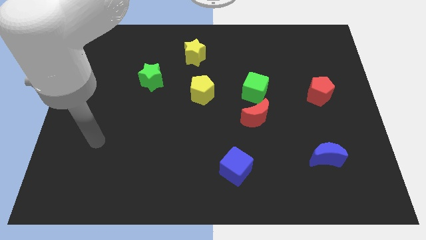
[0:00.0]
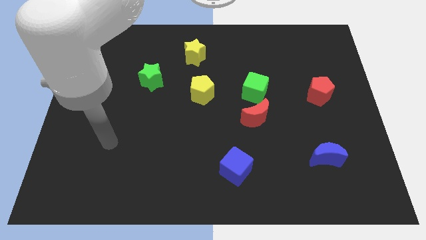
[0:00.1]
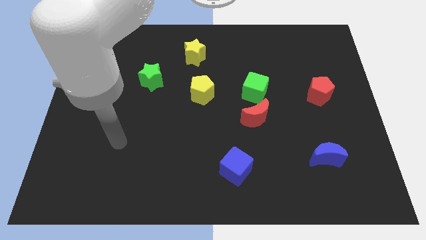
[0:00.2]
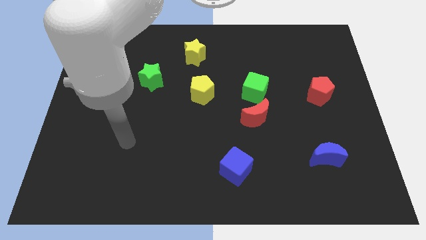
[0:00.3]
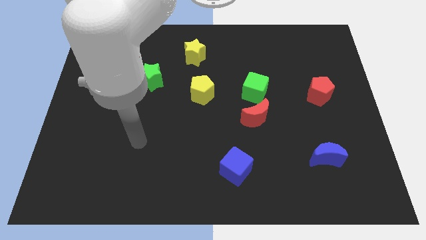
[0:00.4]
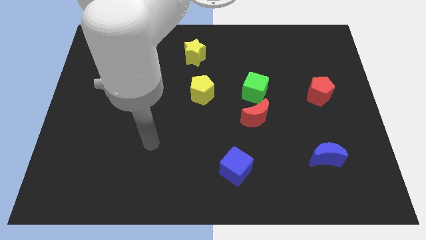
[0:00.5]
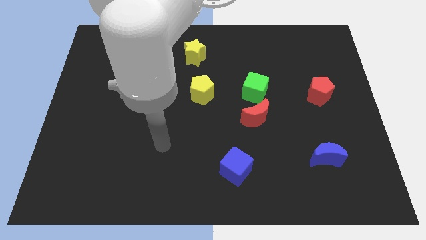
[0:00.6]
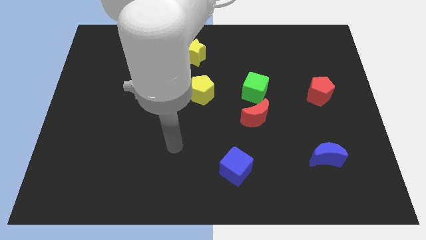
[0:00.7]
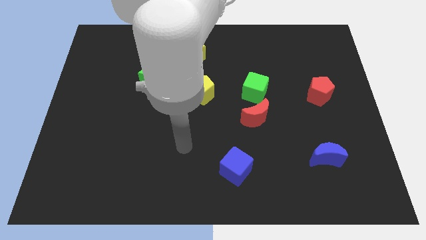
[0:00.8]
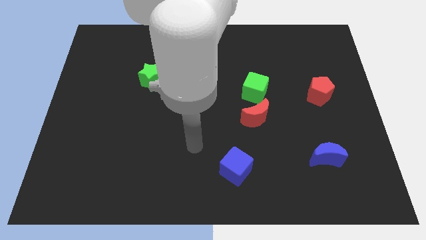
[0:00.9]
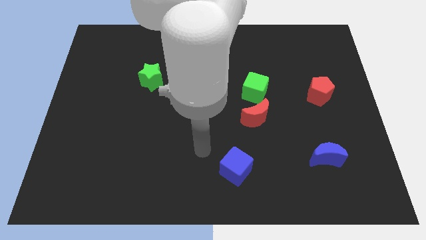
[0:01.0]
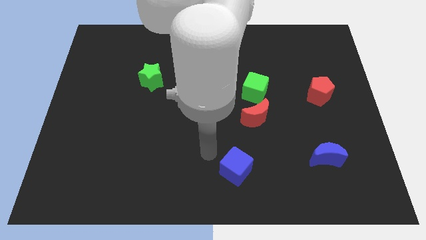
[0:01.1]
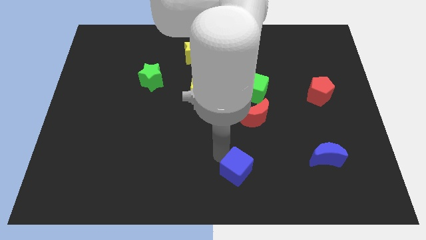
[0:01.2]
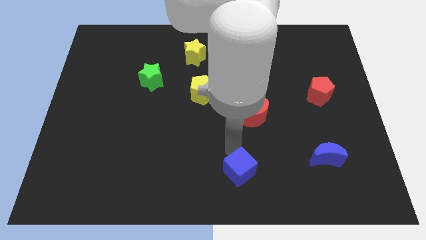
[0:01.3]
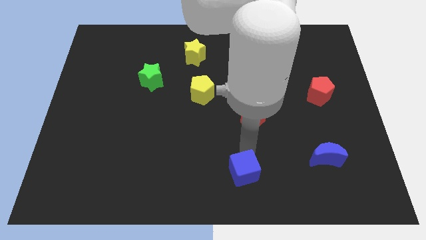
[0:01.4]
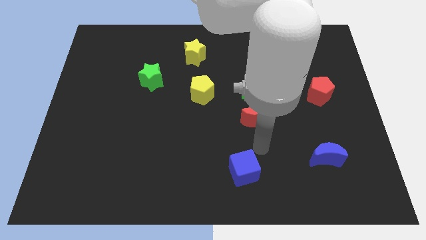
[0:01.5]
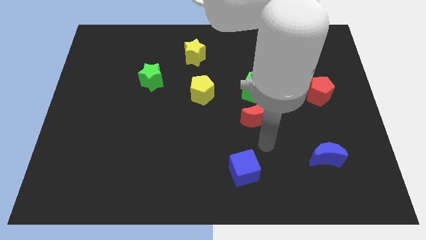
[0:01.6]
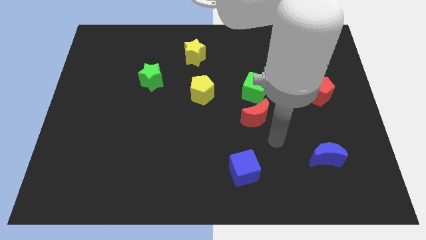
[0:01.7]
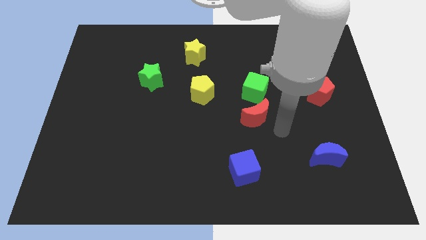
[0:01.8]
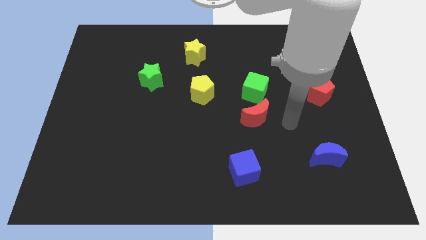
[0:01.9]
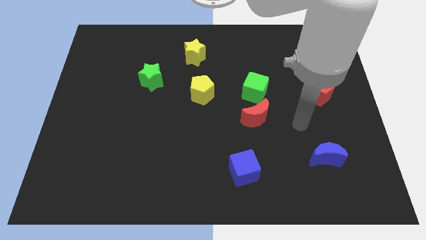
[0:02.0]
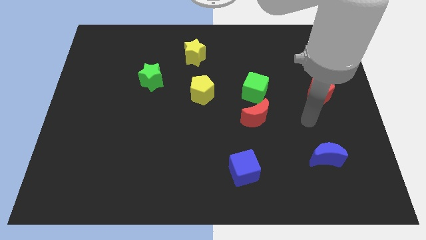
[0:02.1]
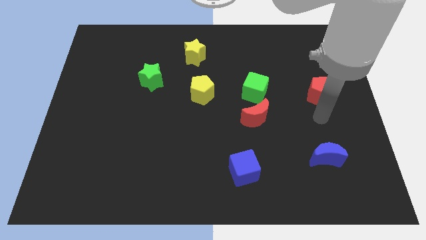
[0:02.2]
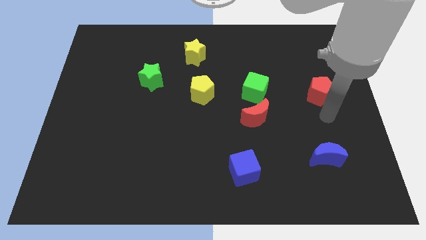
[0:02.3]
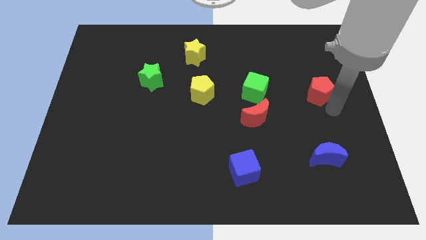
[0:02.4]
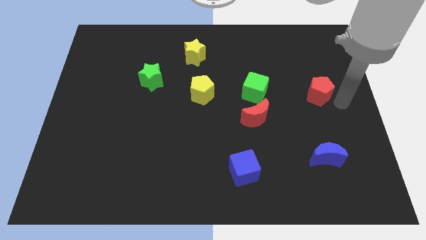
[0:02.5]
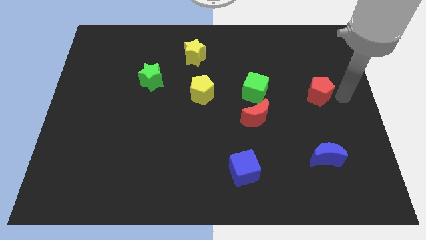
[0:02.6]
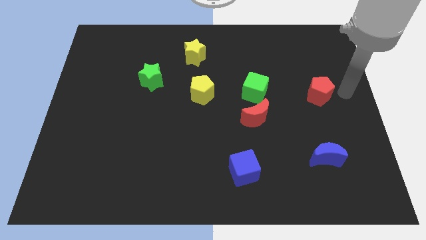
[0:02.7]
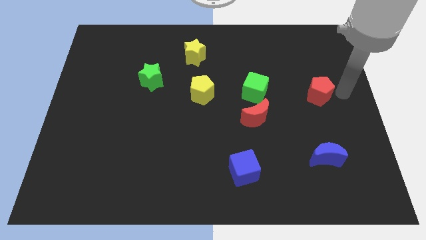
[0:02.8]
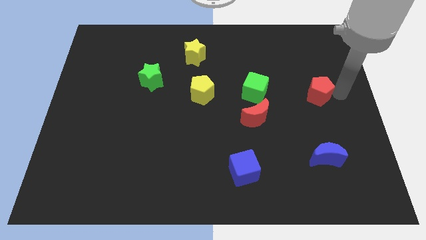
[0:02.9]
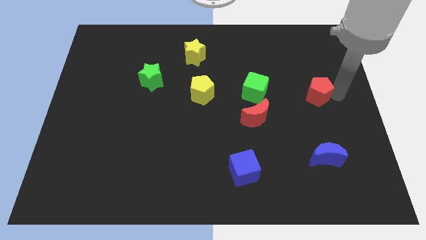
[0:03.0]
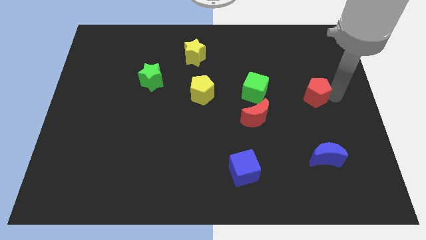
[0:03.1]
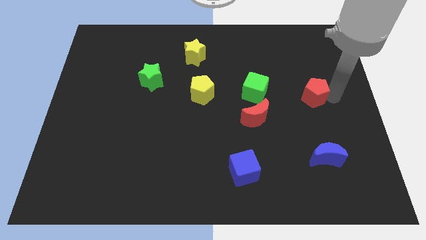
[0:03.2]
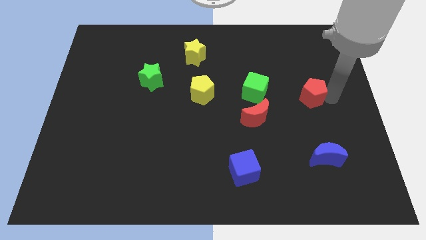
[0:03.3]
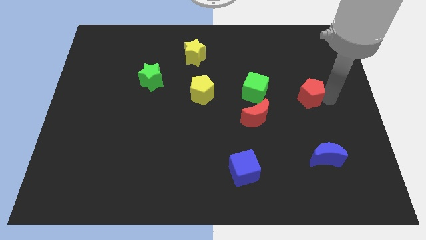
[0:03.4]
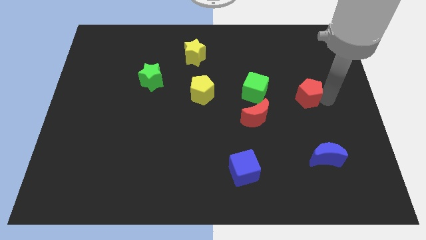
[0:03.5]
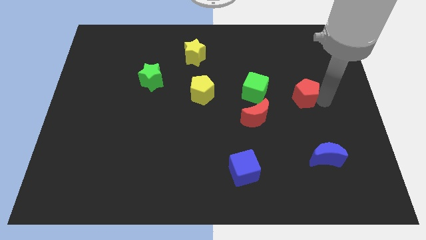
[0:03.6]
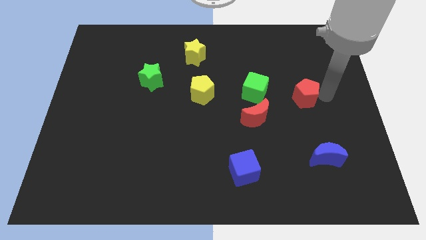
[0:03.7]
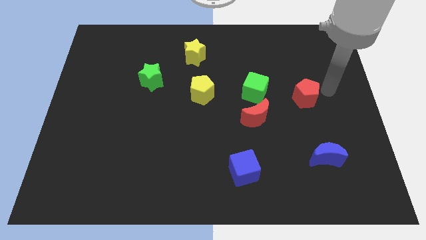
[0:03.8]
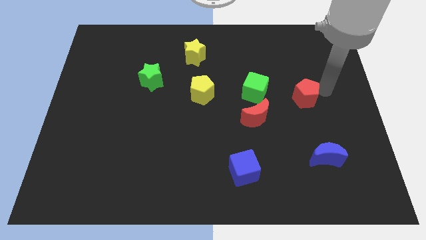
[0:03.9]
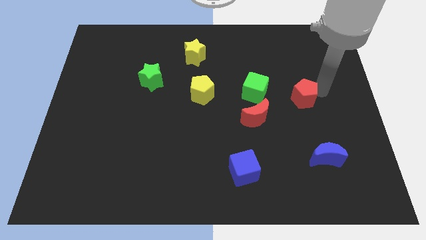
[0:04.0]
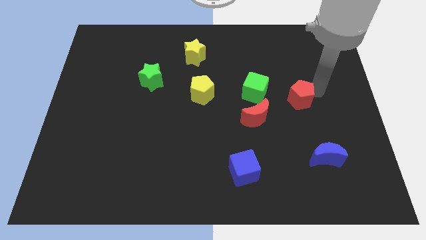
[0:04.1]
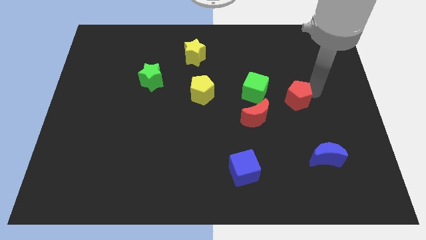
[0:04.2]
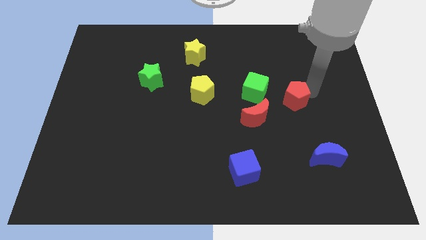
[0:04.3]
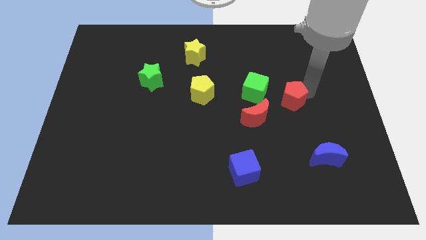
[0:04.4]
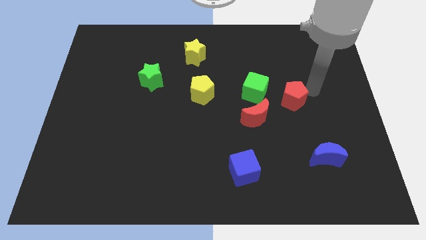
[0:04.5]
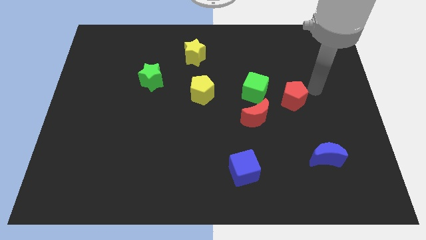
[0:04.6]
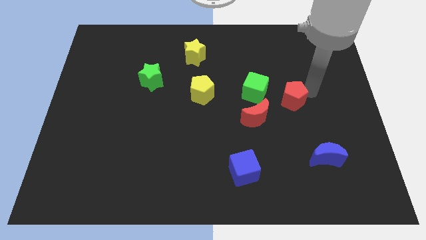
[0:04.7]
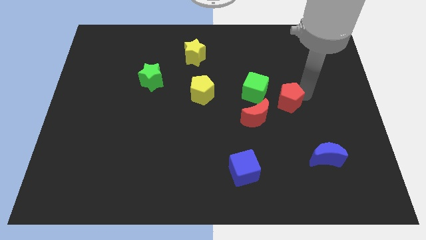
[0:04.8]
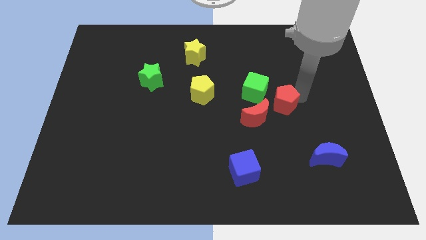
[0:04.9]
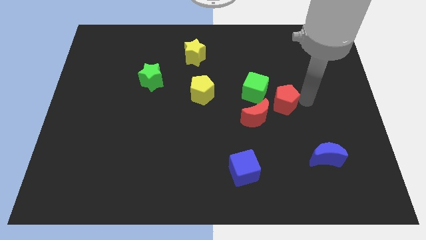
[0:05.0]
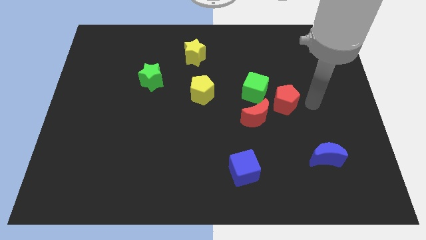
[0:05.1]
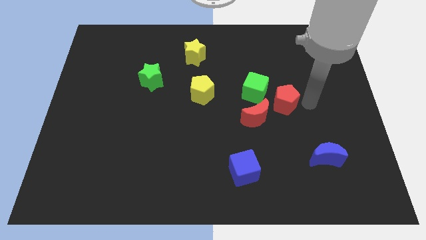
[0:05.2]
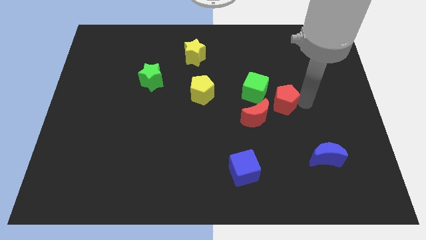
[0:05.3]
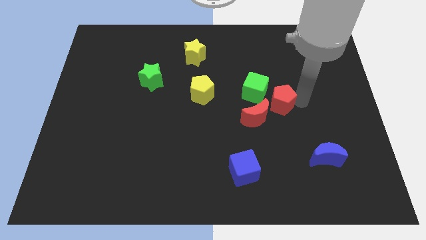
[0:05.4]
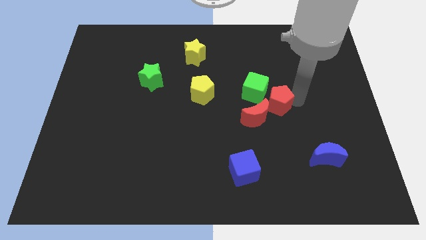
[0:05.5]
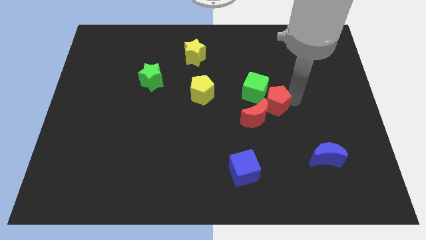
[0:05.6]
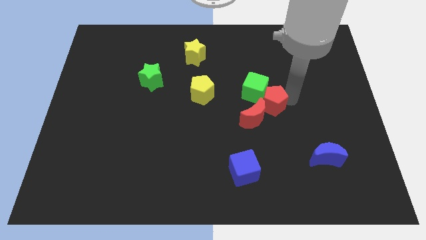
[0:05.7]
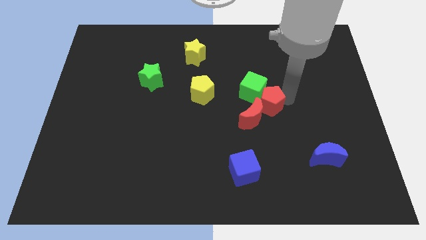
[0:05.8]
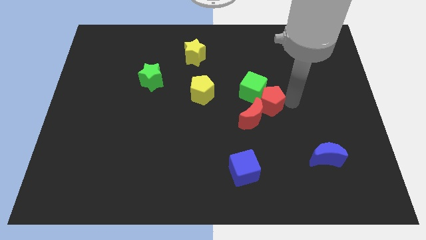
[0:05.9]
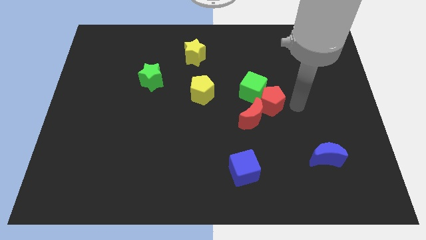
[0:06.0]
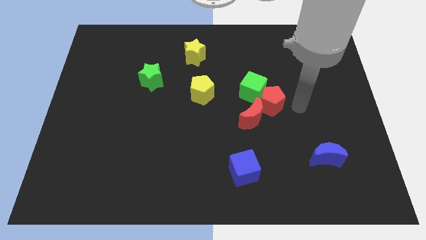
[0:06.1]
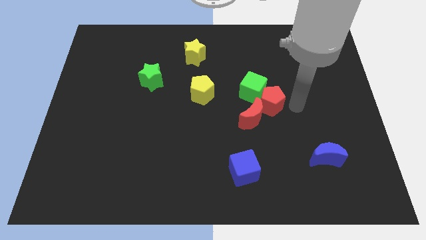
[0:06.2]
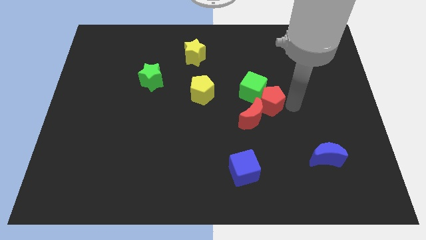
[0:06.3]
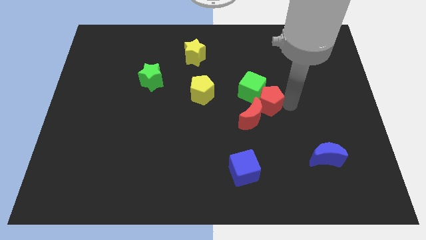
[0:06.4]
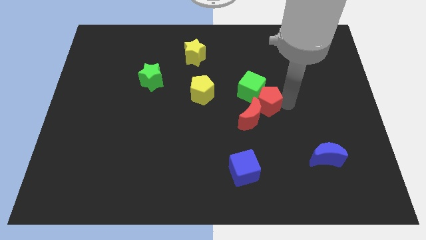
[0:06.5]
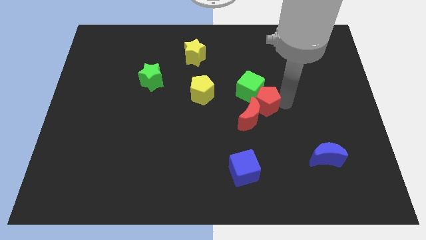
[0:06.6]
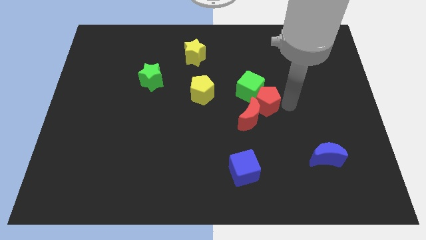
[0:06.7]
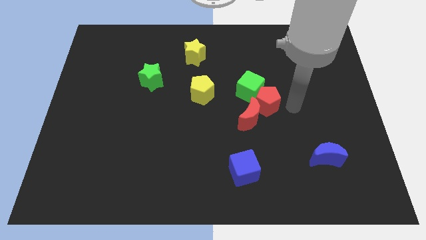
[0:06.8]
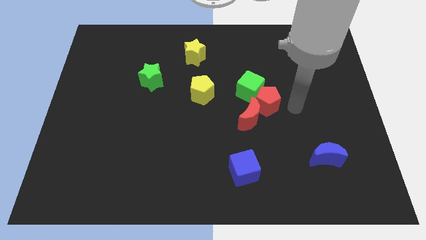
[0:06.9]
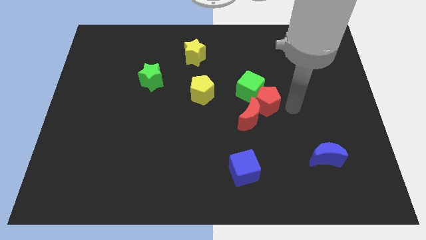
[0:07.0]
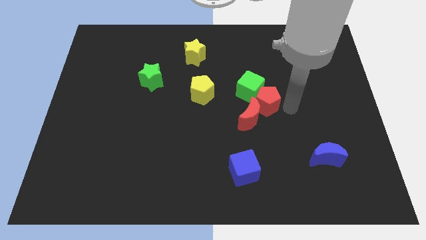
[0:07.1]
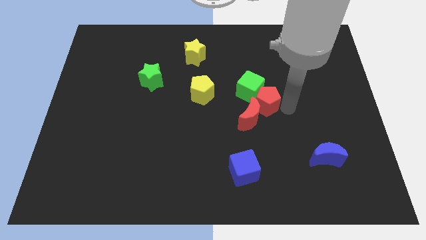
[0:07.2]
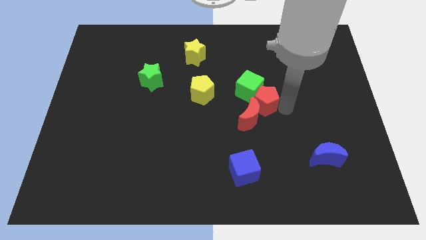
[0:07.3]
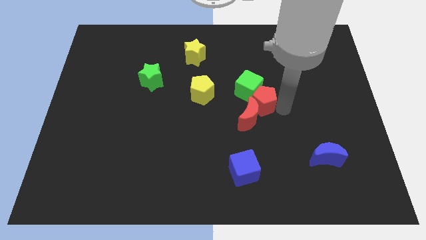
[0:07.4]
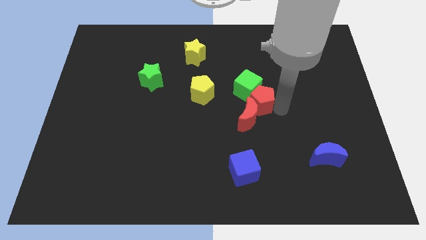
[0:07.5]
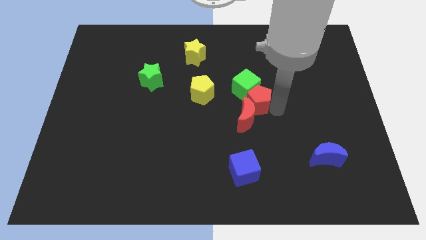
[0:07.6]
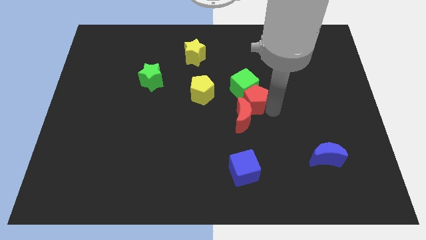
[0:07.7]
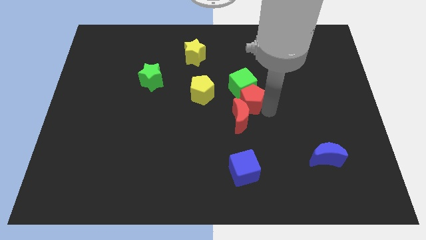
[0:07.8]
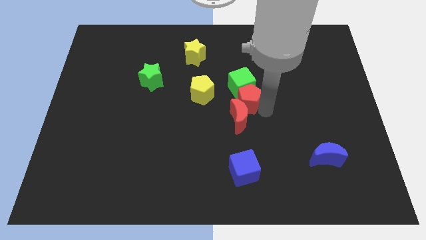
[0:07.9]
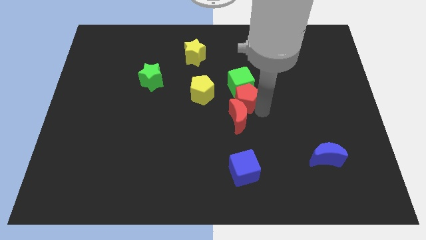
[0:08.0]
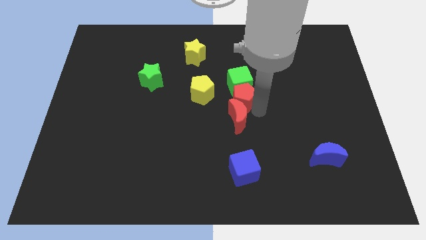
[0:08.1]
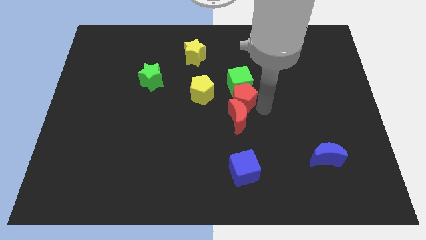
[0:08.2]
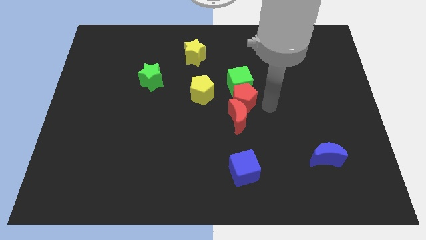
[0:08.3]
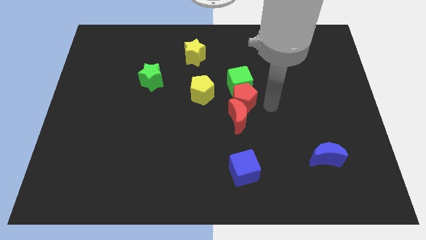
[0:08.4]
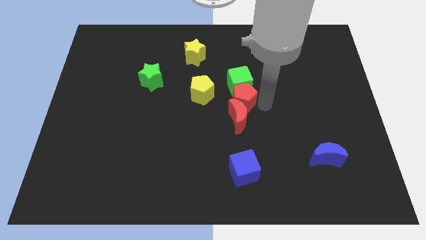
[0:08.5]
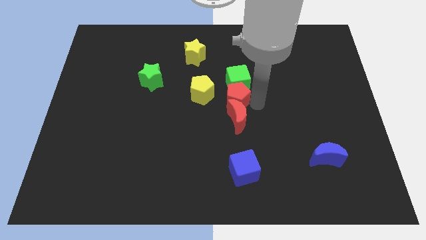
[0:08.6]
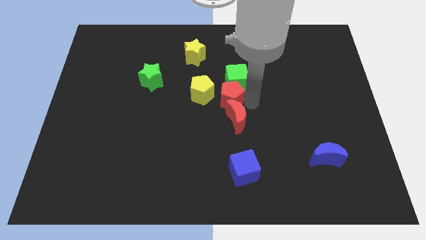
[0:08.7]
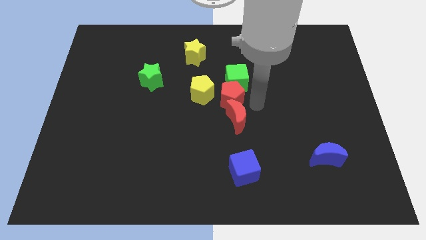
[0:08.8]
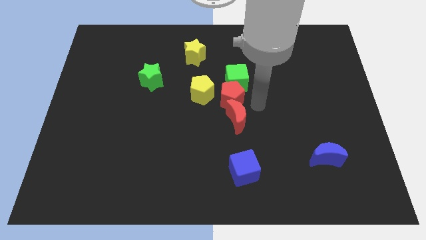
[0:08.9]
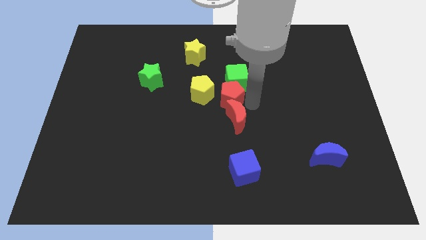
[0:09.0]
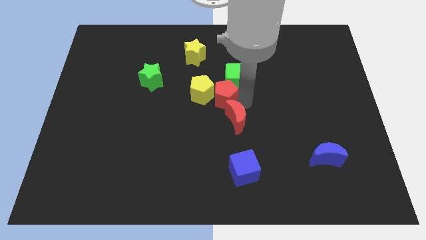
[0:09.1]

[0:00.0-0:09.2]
push the red pentagon towards the yellow pentagon
